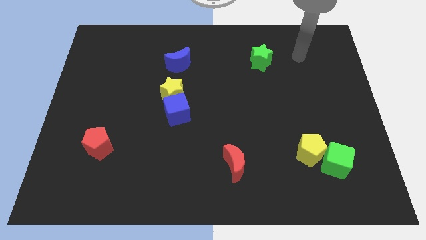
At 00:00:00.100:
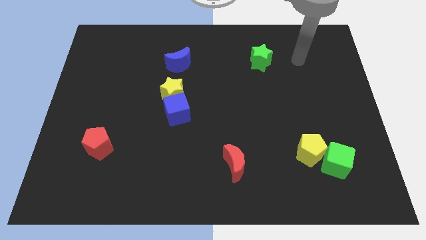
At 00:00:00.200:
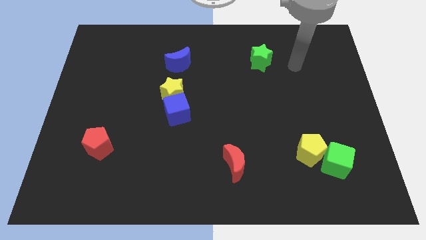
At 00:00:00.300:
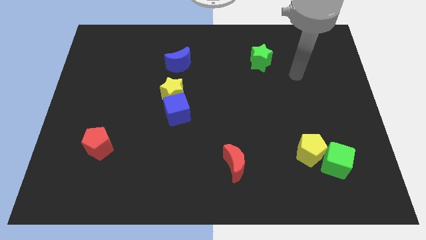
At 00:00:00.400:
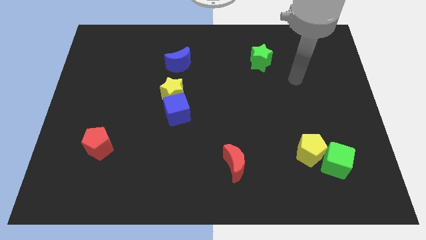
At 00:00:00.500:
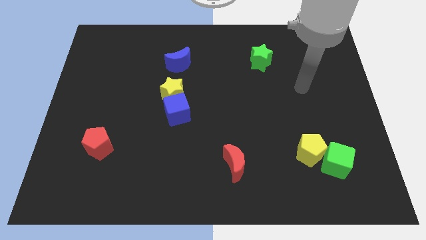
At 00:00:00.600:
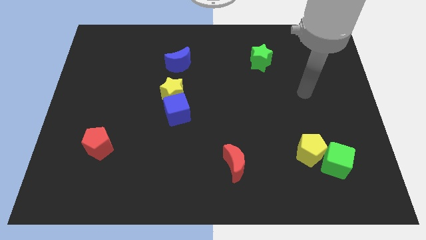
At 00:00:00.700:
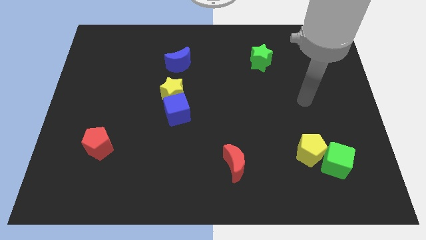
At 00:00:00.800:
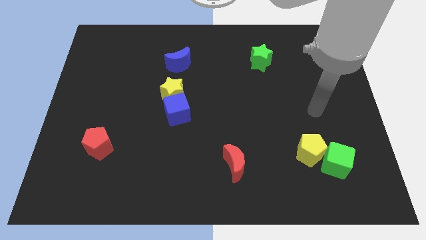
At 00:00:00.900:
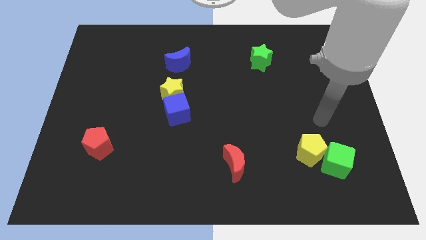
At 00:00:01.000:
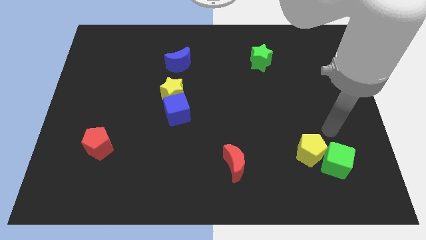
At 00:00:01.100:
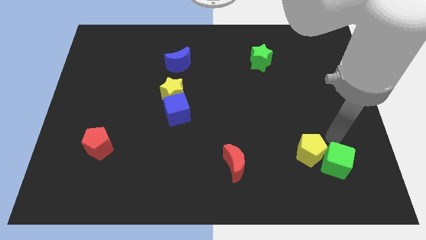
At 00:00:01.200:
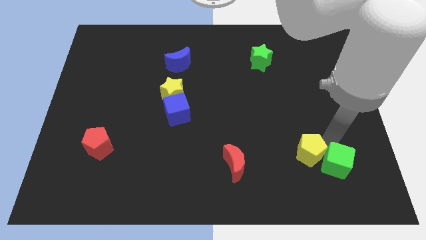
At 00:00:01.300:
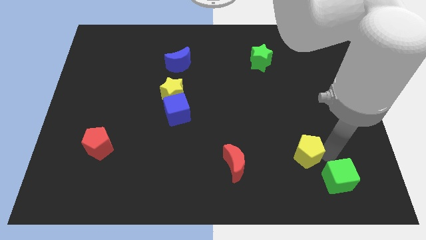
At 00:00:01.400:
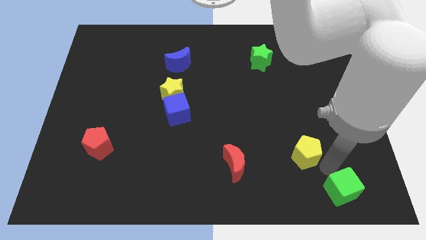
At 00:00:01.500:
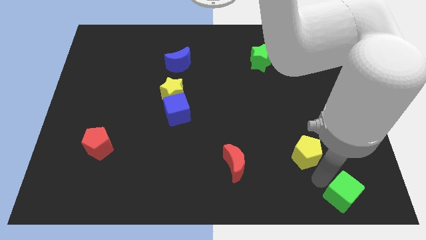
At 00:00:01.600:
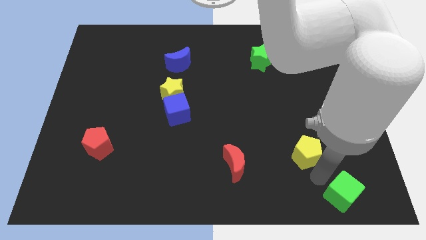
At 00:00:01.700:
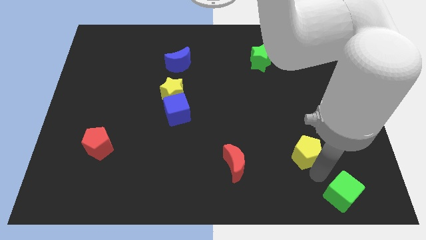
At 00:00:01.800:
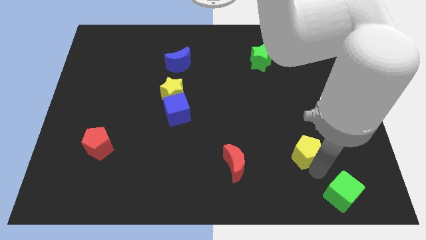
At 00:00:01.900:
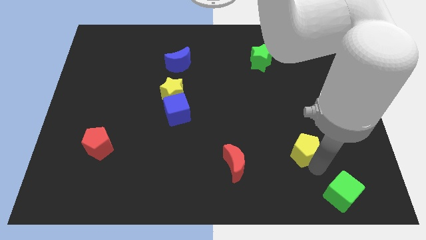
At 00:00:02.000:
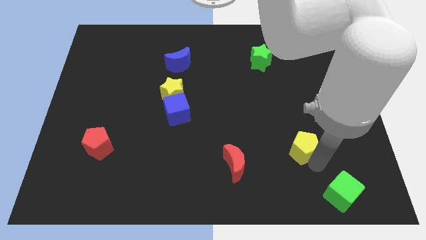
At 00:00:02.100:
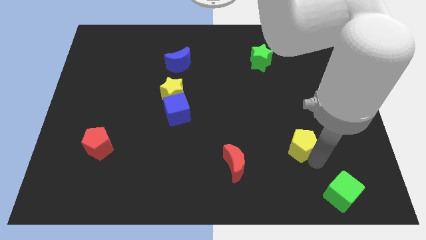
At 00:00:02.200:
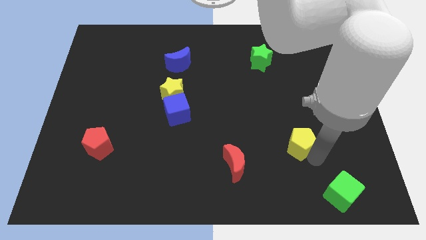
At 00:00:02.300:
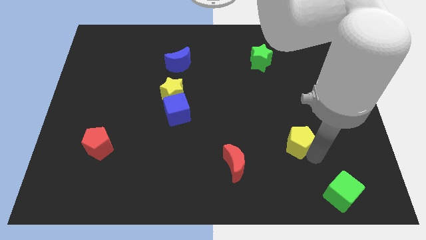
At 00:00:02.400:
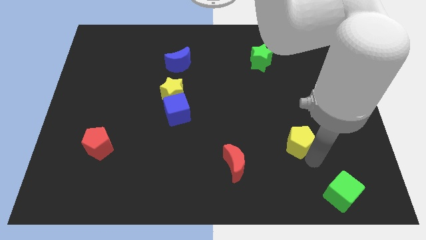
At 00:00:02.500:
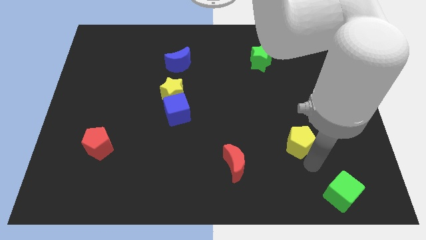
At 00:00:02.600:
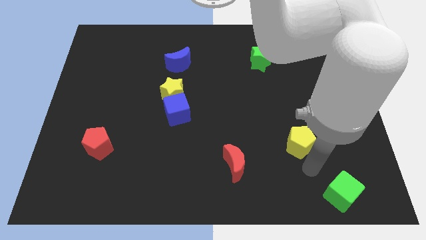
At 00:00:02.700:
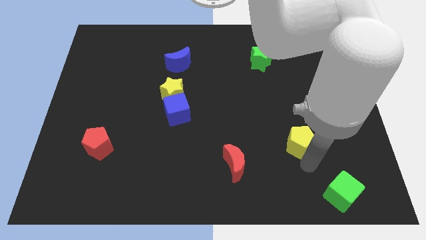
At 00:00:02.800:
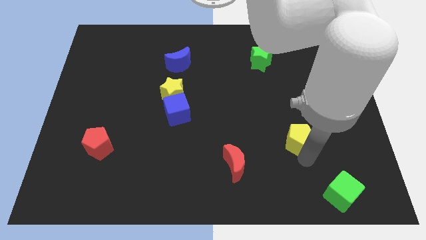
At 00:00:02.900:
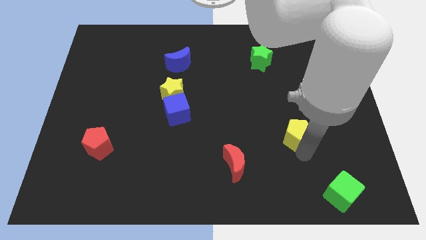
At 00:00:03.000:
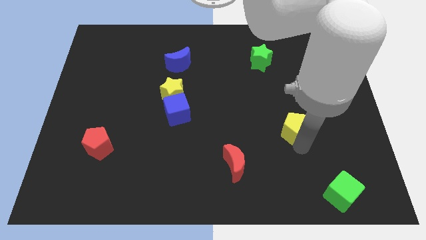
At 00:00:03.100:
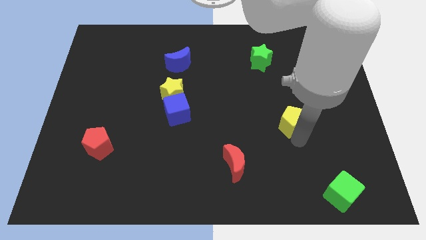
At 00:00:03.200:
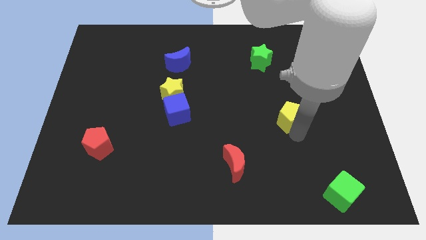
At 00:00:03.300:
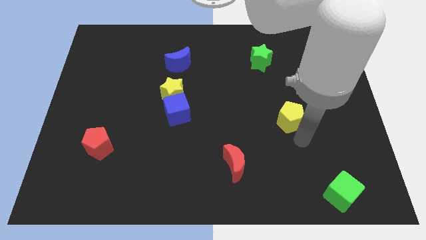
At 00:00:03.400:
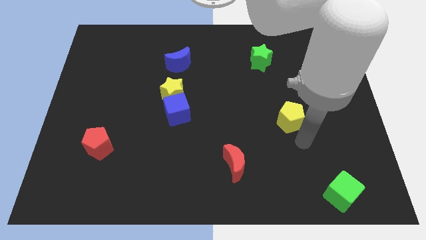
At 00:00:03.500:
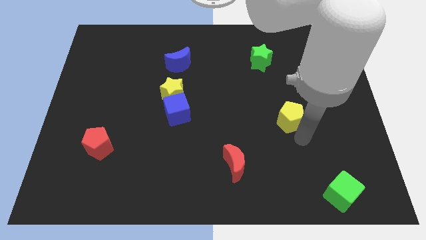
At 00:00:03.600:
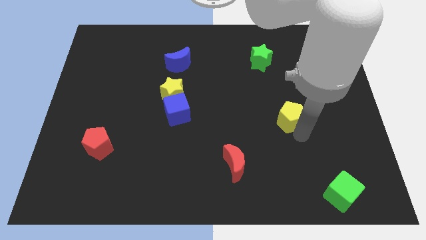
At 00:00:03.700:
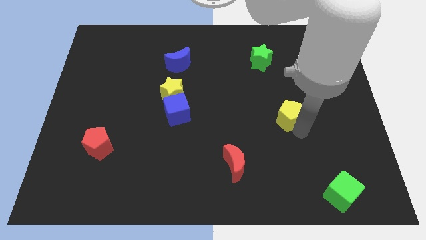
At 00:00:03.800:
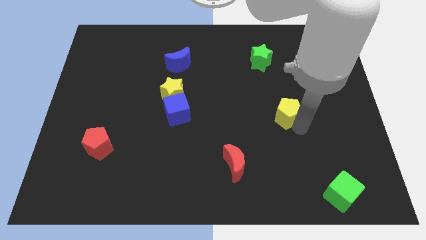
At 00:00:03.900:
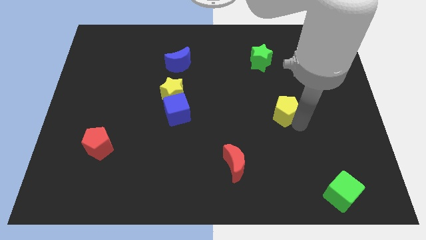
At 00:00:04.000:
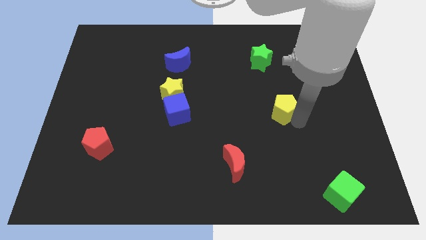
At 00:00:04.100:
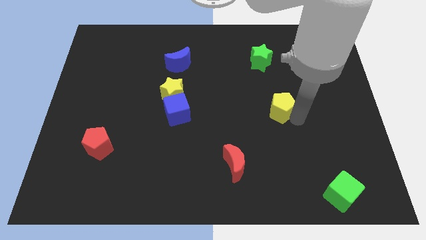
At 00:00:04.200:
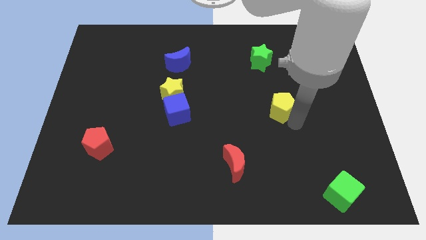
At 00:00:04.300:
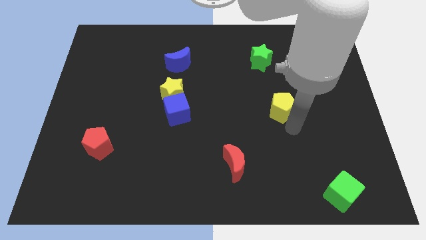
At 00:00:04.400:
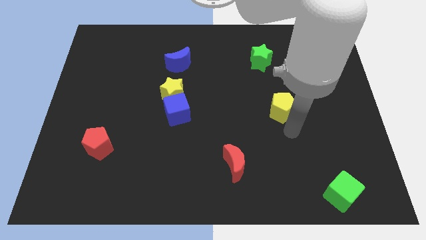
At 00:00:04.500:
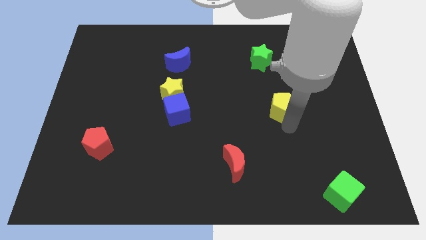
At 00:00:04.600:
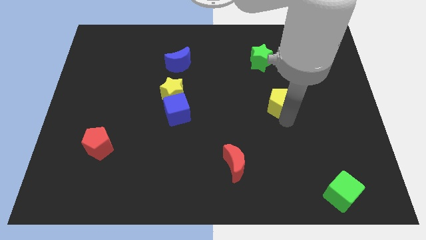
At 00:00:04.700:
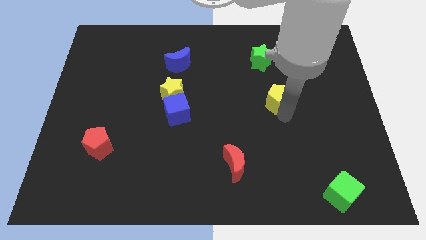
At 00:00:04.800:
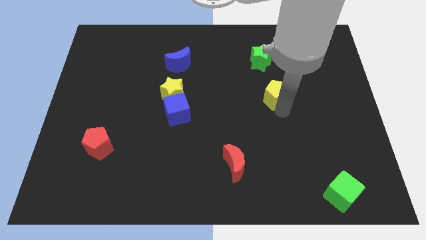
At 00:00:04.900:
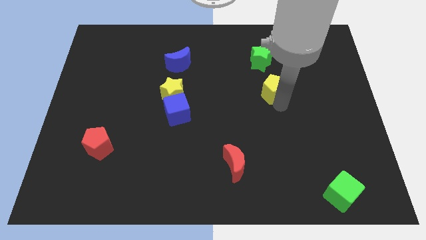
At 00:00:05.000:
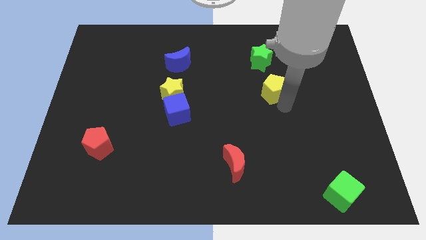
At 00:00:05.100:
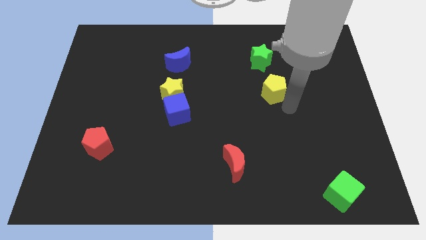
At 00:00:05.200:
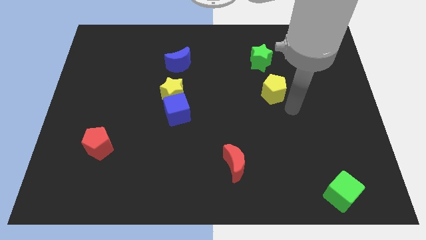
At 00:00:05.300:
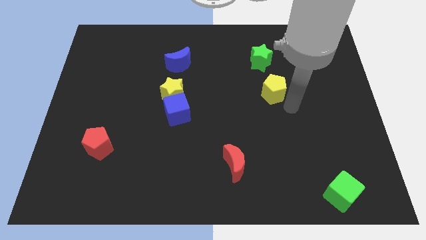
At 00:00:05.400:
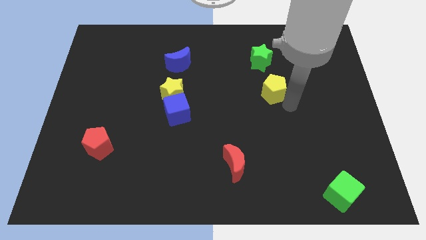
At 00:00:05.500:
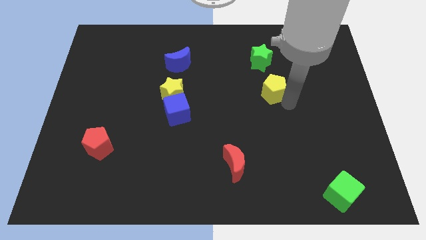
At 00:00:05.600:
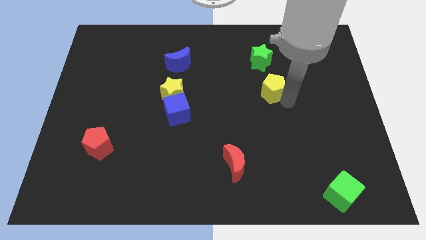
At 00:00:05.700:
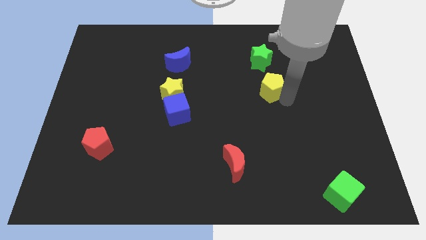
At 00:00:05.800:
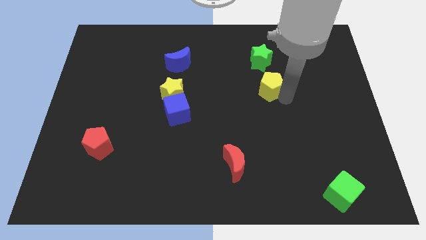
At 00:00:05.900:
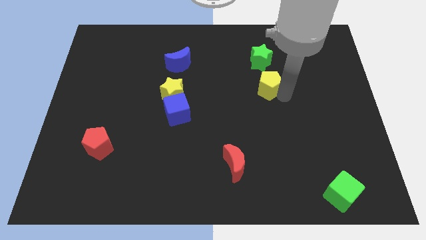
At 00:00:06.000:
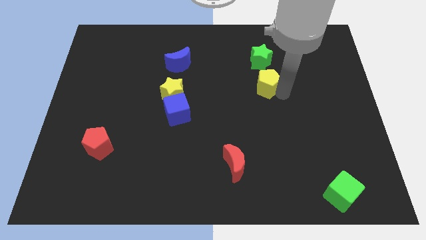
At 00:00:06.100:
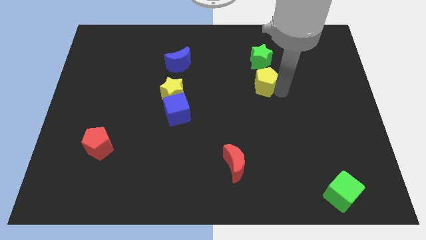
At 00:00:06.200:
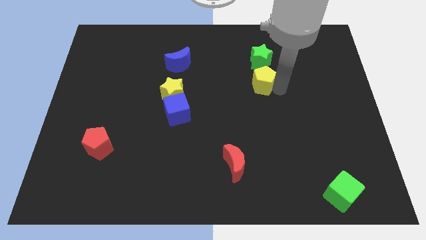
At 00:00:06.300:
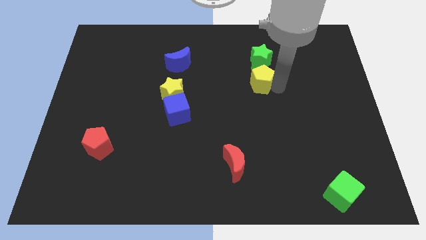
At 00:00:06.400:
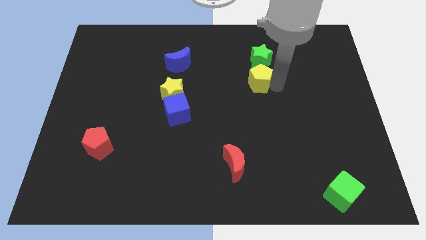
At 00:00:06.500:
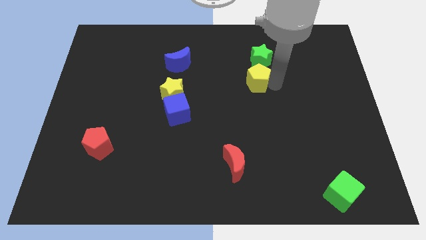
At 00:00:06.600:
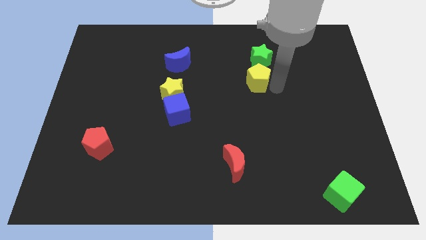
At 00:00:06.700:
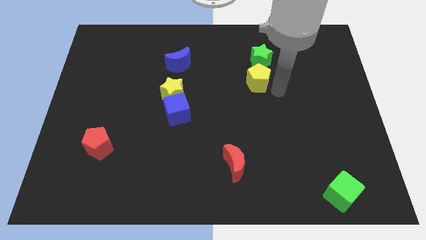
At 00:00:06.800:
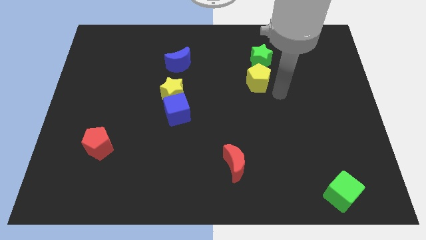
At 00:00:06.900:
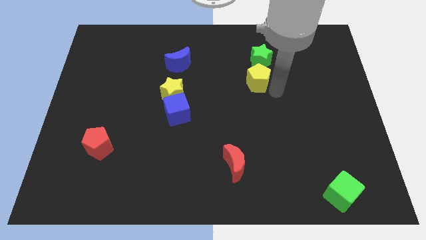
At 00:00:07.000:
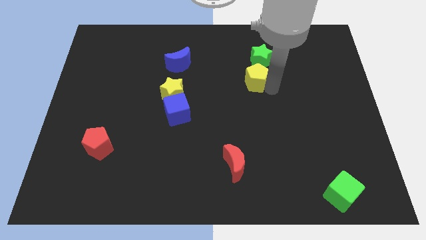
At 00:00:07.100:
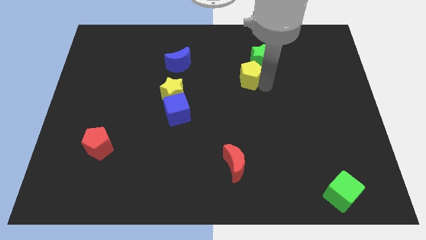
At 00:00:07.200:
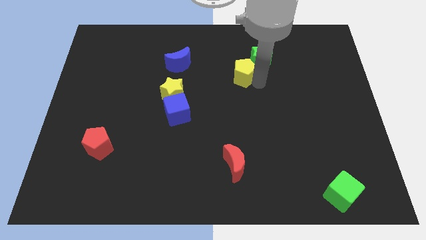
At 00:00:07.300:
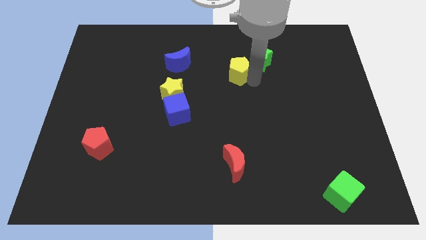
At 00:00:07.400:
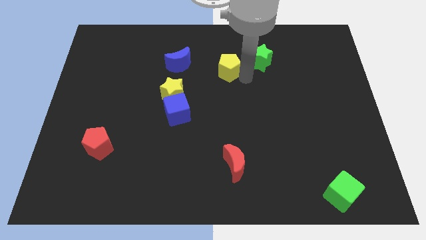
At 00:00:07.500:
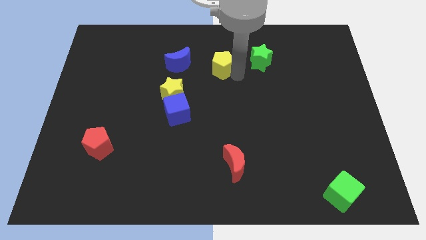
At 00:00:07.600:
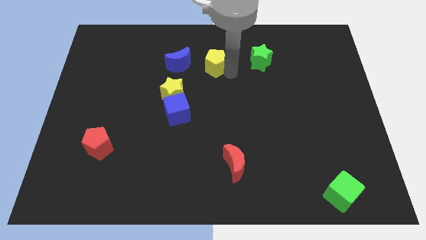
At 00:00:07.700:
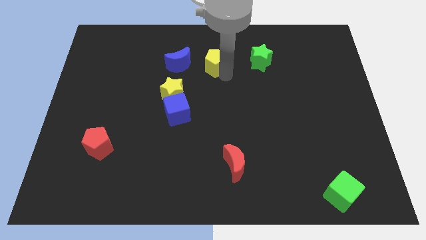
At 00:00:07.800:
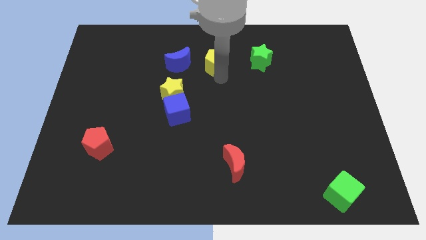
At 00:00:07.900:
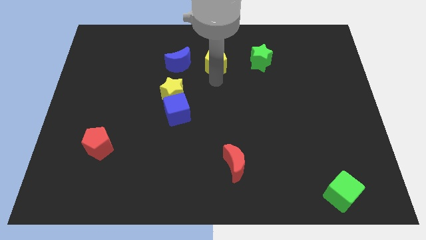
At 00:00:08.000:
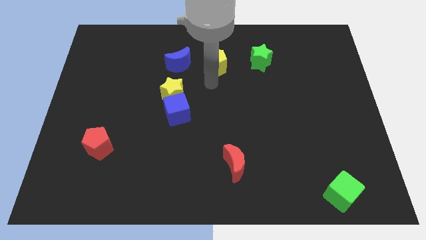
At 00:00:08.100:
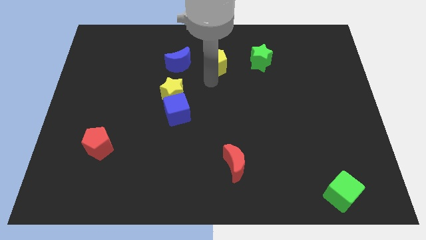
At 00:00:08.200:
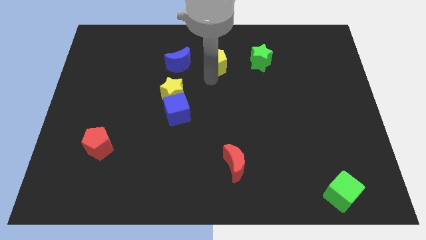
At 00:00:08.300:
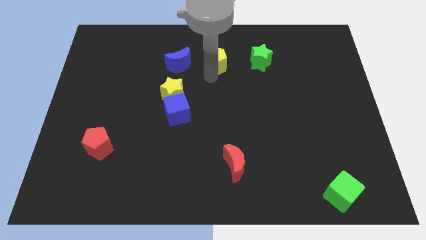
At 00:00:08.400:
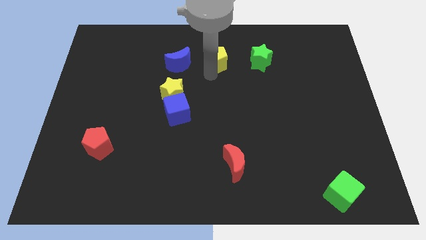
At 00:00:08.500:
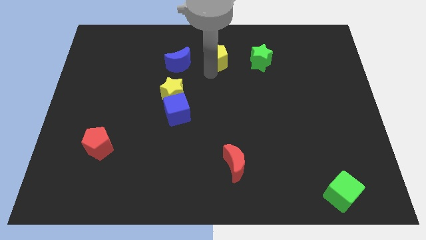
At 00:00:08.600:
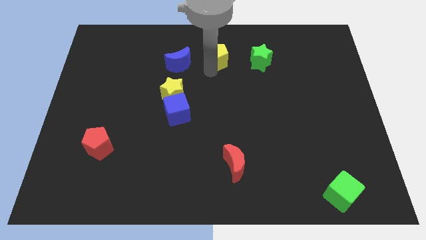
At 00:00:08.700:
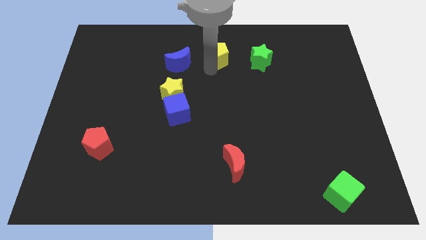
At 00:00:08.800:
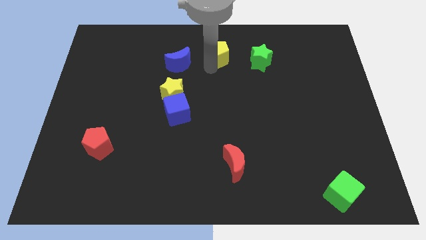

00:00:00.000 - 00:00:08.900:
slide the yellow pentagon to the towards your base
